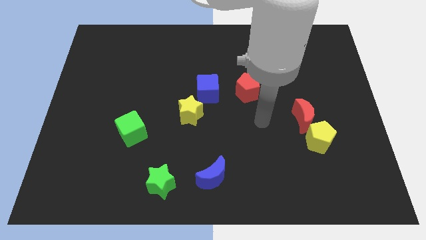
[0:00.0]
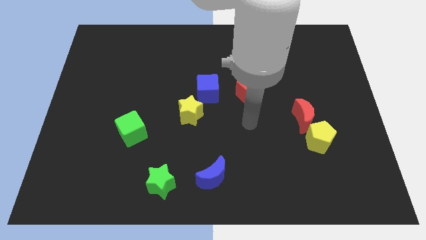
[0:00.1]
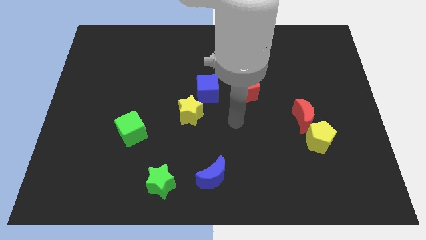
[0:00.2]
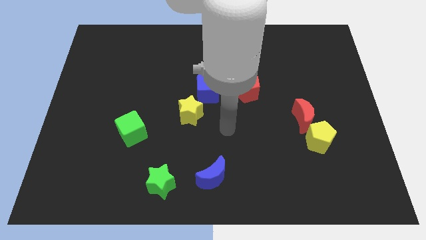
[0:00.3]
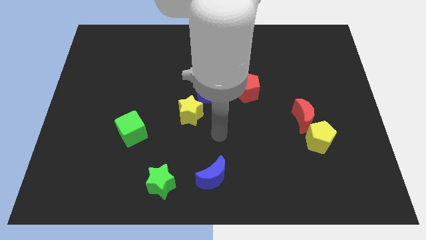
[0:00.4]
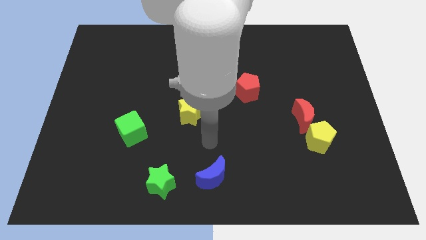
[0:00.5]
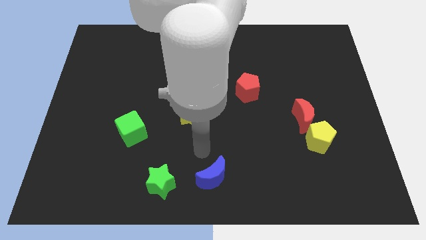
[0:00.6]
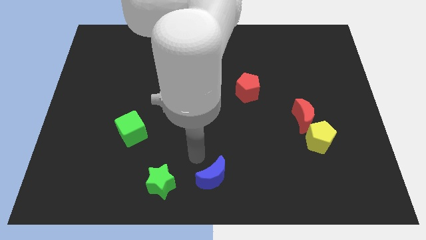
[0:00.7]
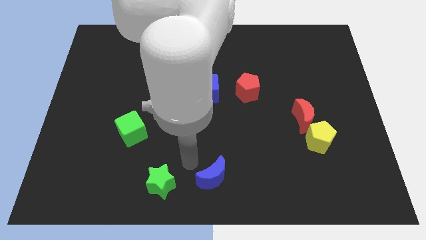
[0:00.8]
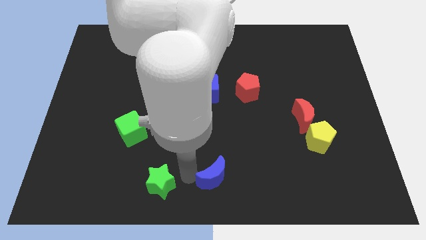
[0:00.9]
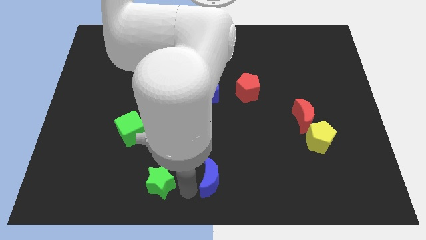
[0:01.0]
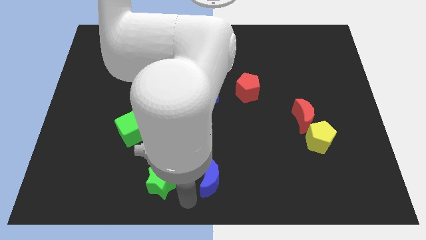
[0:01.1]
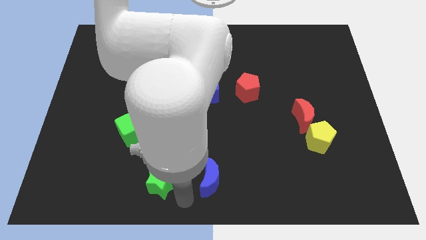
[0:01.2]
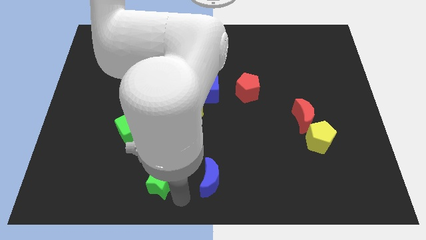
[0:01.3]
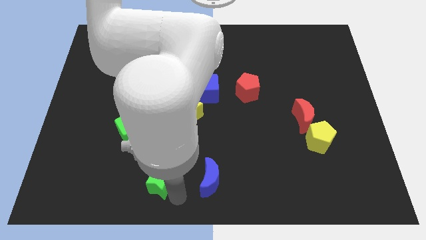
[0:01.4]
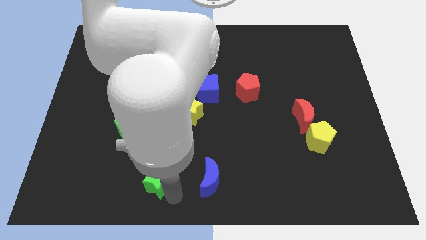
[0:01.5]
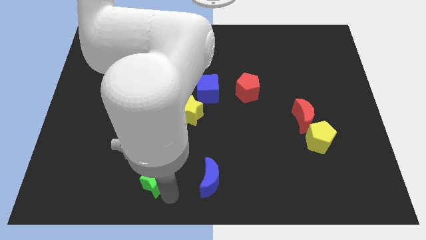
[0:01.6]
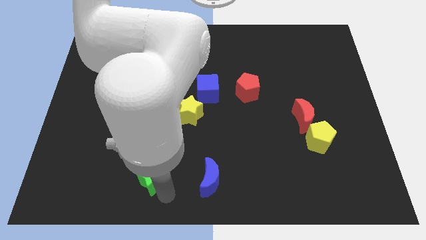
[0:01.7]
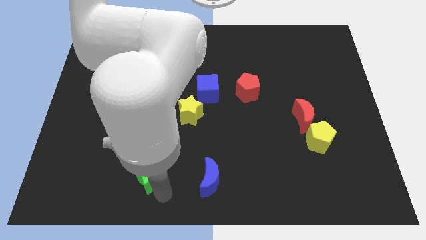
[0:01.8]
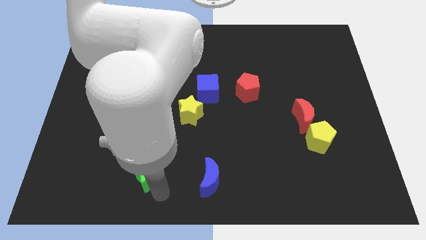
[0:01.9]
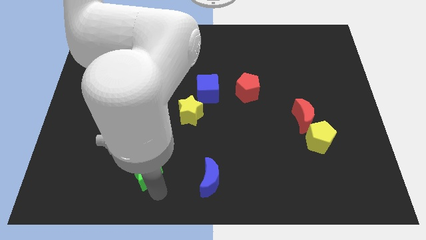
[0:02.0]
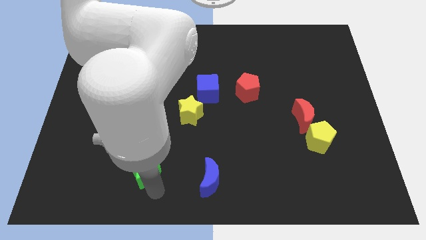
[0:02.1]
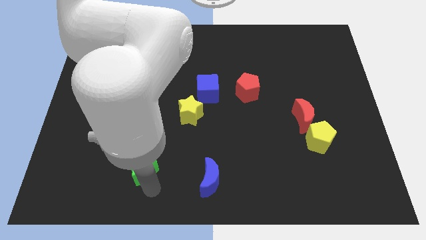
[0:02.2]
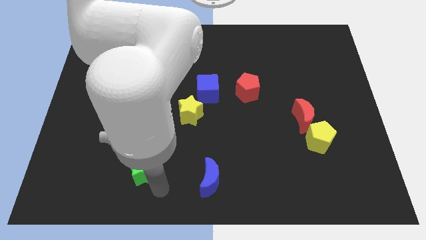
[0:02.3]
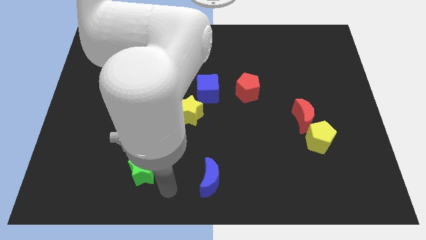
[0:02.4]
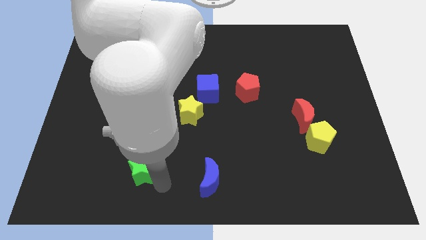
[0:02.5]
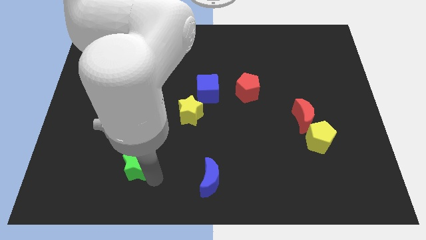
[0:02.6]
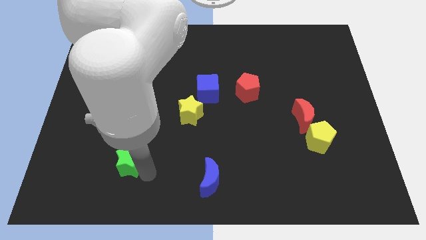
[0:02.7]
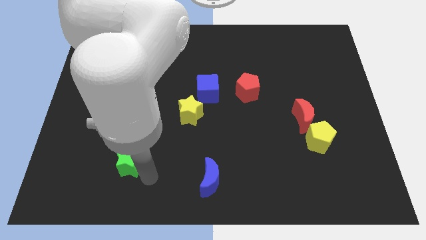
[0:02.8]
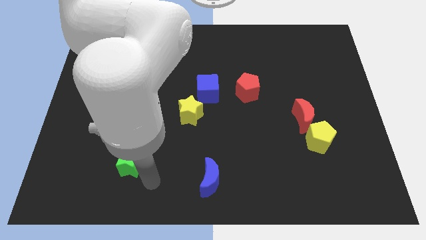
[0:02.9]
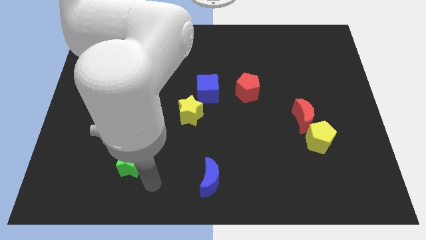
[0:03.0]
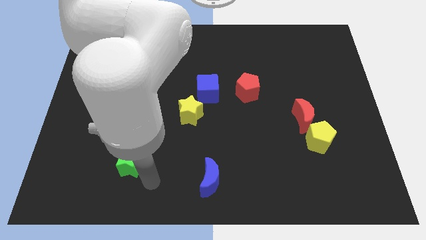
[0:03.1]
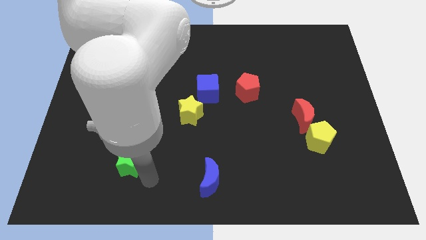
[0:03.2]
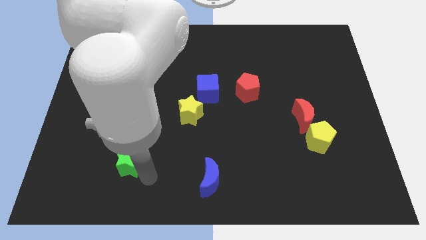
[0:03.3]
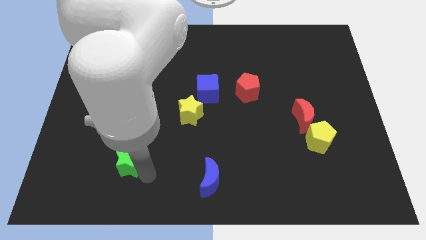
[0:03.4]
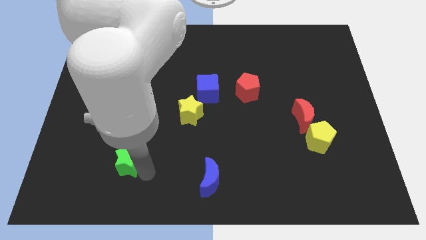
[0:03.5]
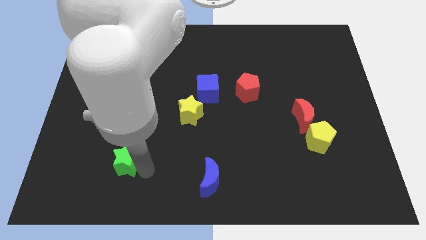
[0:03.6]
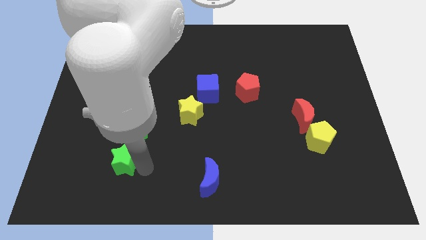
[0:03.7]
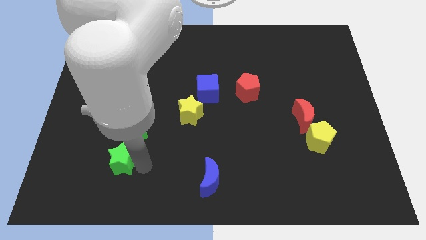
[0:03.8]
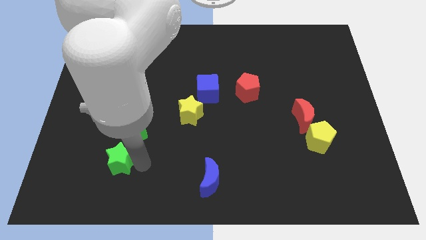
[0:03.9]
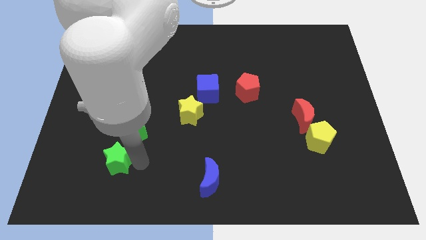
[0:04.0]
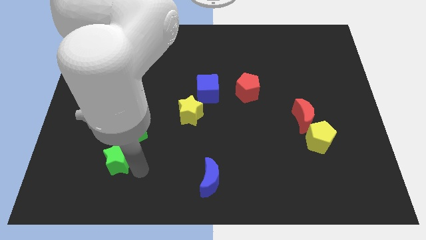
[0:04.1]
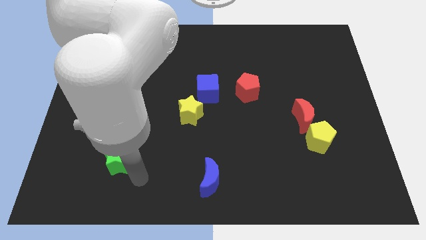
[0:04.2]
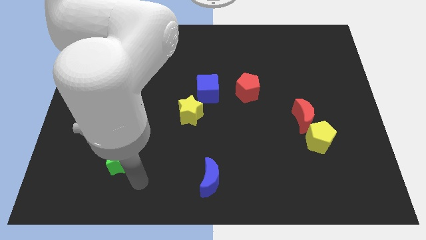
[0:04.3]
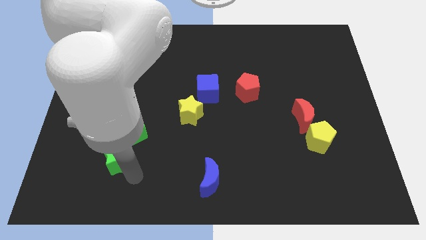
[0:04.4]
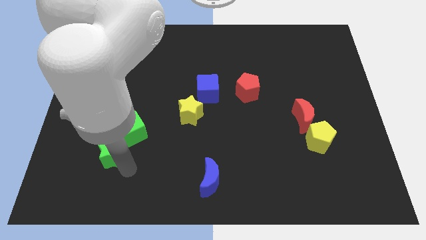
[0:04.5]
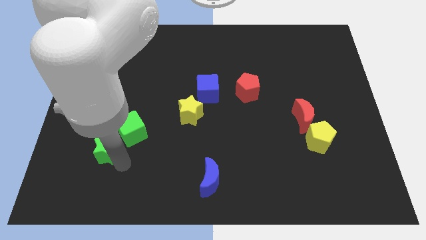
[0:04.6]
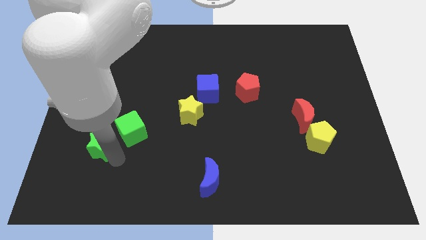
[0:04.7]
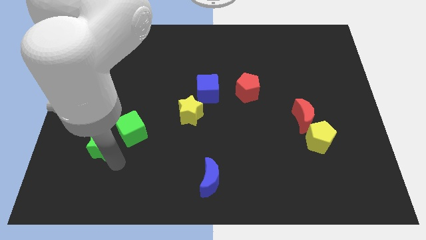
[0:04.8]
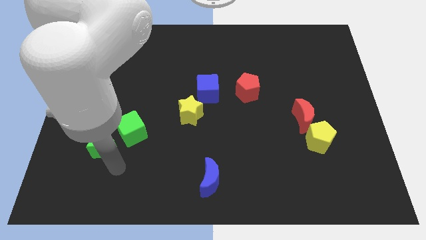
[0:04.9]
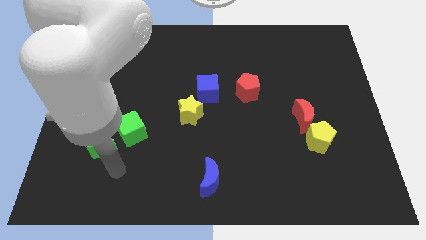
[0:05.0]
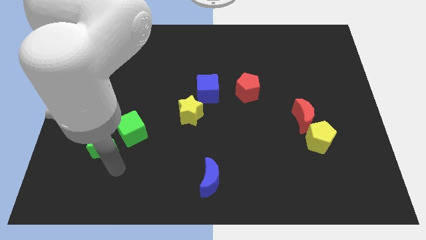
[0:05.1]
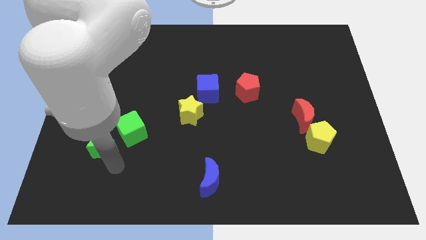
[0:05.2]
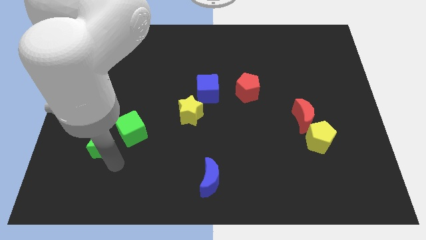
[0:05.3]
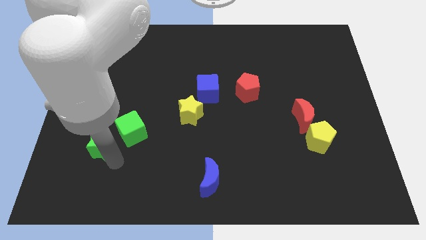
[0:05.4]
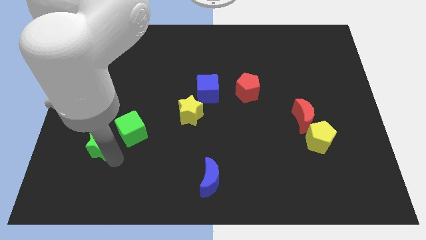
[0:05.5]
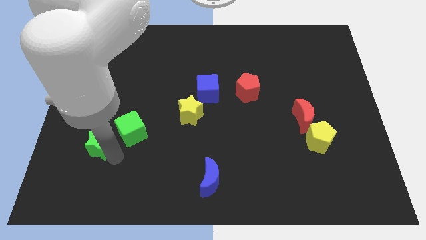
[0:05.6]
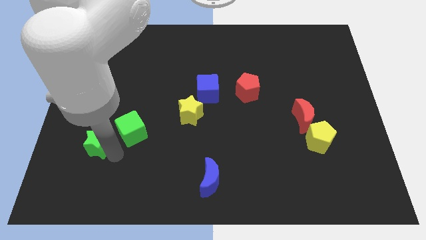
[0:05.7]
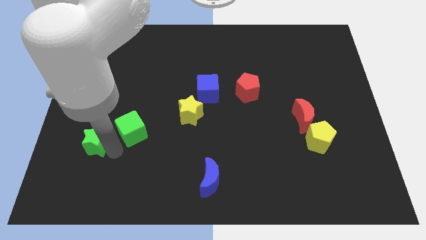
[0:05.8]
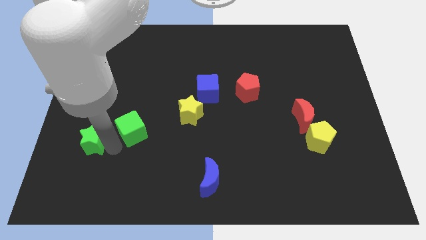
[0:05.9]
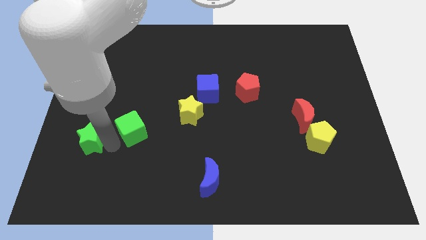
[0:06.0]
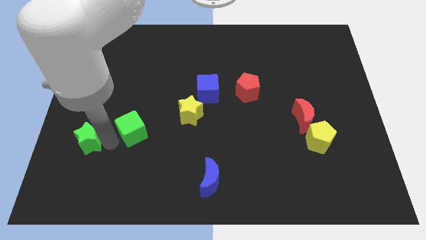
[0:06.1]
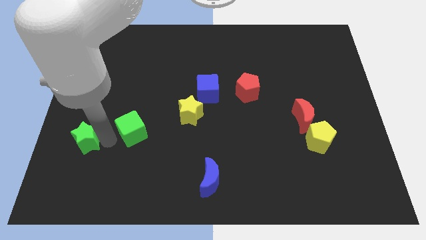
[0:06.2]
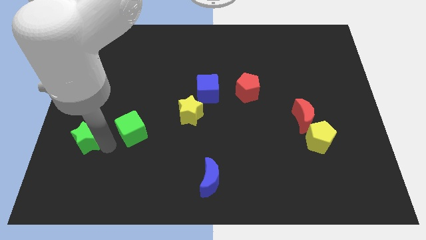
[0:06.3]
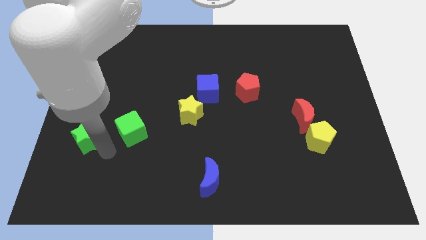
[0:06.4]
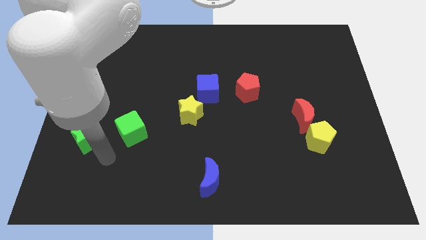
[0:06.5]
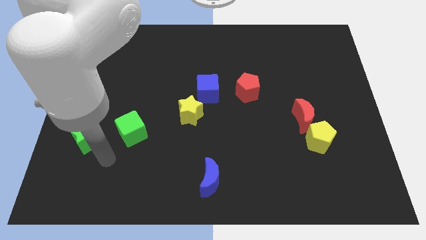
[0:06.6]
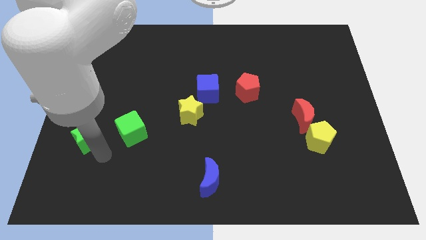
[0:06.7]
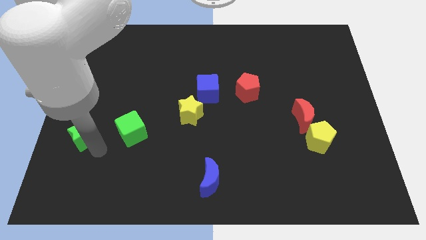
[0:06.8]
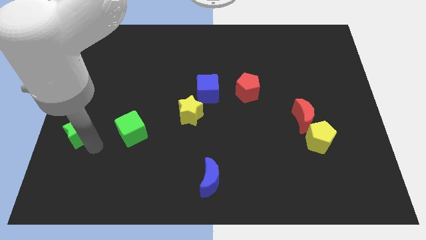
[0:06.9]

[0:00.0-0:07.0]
slide the green star to the center left
